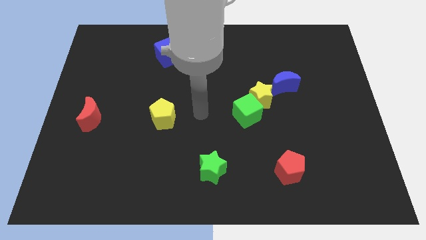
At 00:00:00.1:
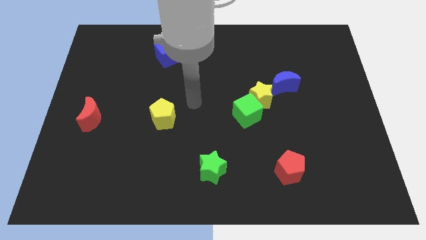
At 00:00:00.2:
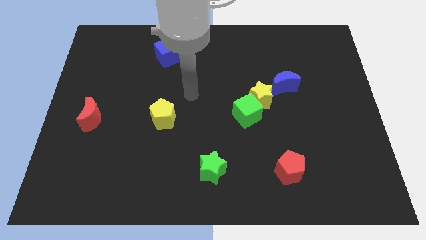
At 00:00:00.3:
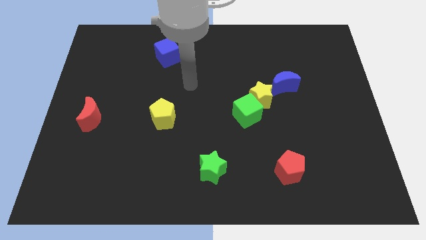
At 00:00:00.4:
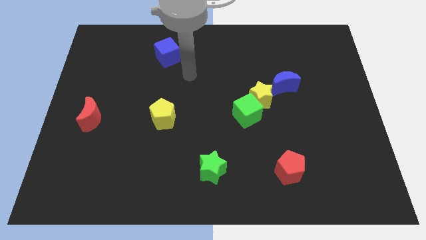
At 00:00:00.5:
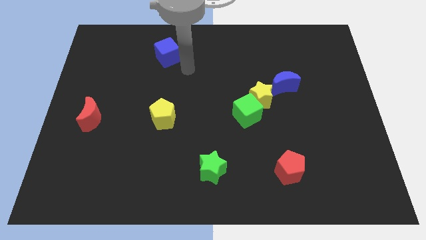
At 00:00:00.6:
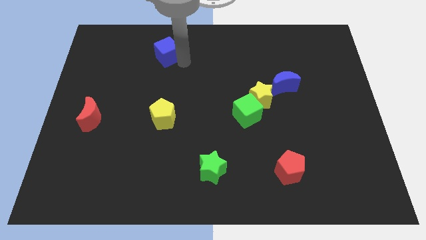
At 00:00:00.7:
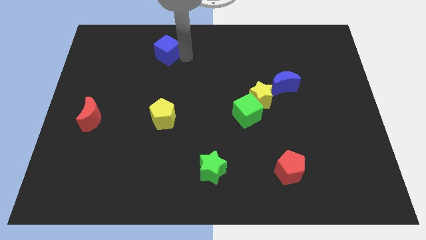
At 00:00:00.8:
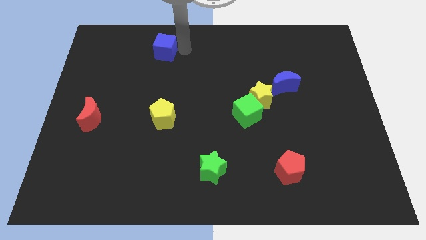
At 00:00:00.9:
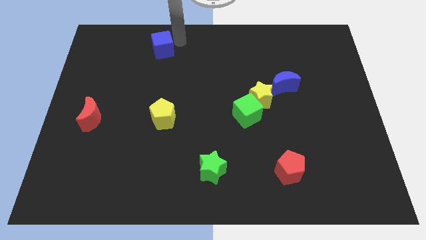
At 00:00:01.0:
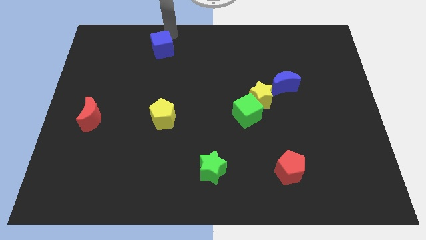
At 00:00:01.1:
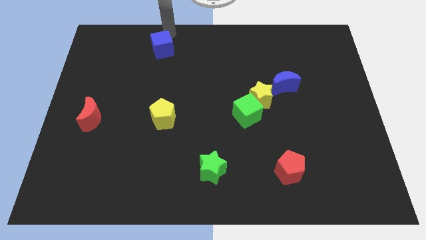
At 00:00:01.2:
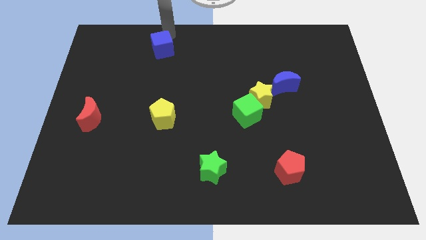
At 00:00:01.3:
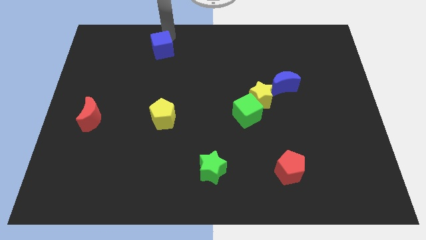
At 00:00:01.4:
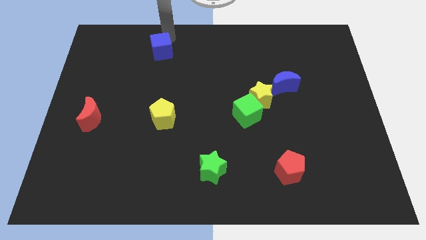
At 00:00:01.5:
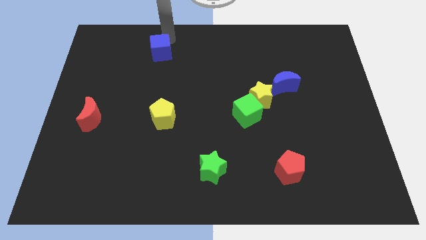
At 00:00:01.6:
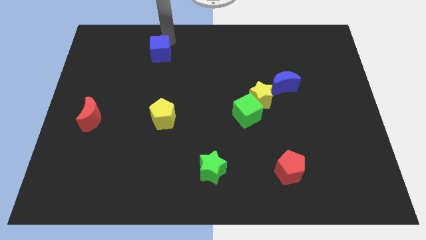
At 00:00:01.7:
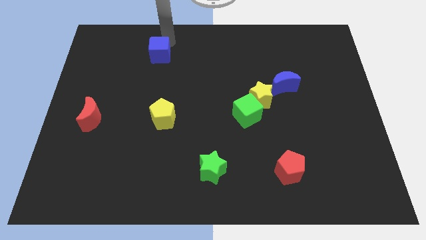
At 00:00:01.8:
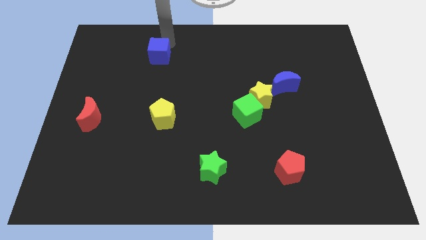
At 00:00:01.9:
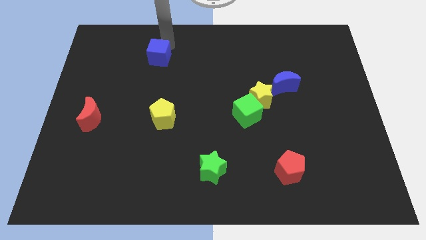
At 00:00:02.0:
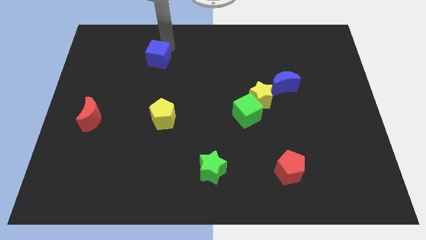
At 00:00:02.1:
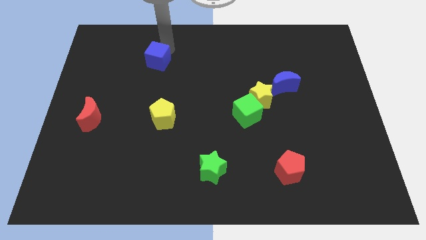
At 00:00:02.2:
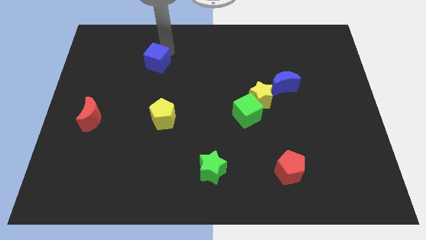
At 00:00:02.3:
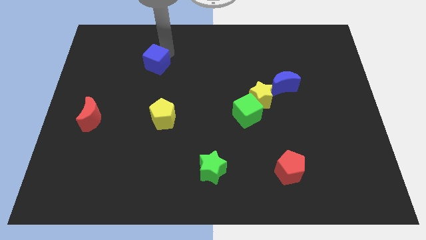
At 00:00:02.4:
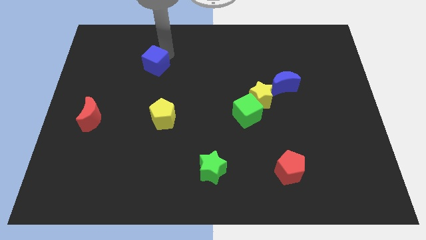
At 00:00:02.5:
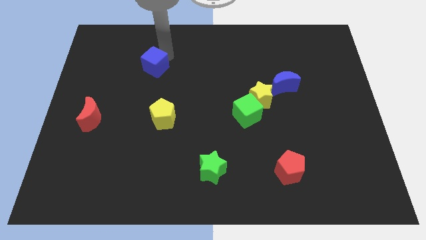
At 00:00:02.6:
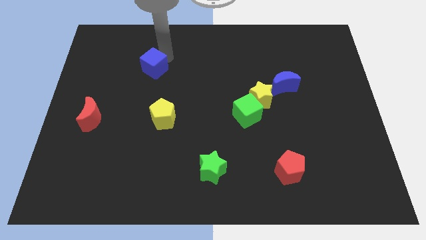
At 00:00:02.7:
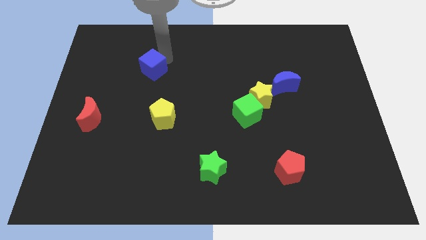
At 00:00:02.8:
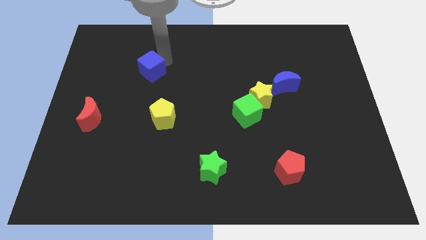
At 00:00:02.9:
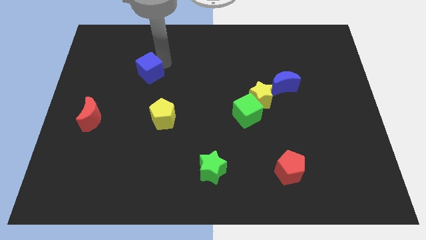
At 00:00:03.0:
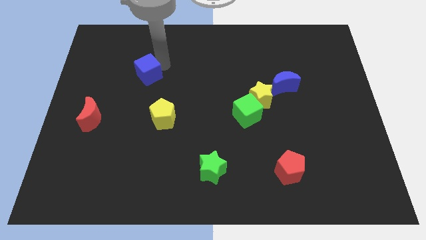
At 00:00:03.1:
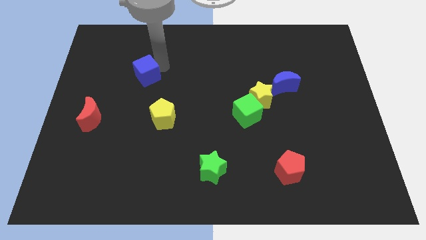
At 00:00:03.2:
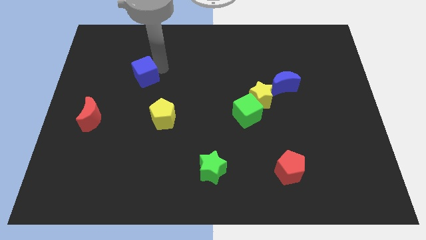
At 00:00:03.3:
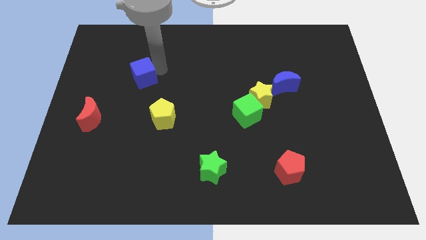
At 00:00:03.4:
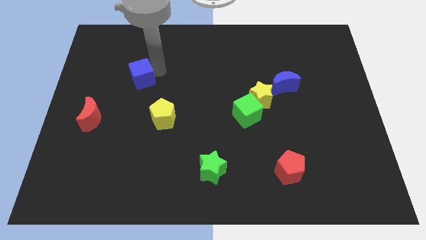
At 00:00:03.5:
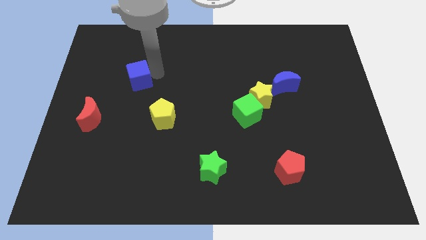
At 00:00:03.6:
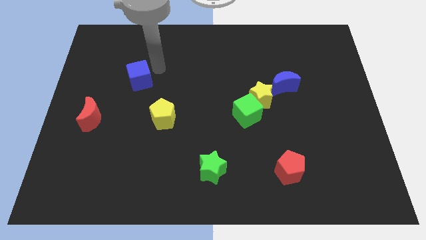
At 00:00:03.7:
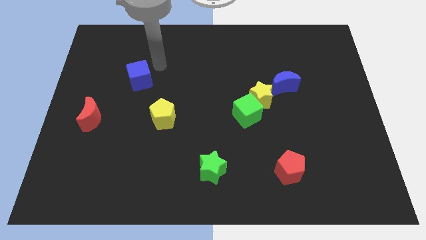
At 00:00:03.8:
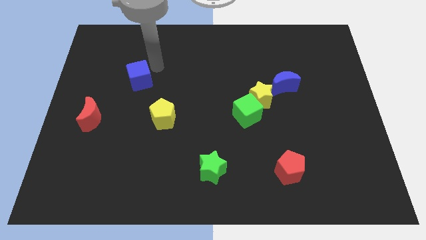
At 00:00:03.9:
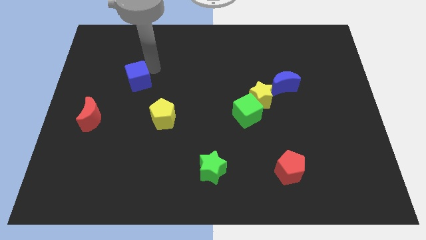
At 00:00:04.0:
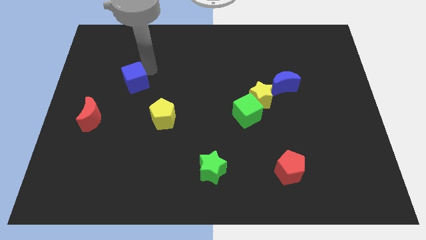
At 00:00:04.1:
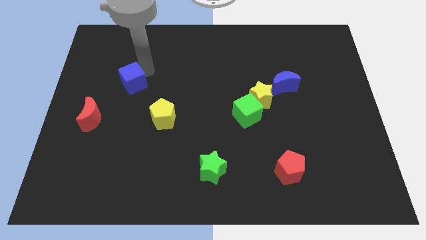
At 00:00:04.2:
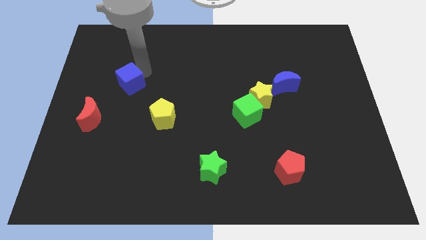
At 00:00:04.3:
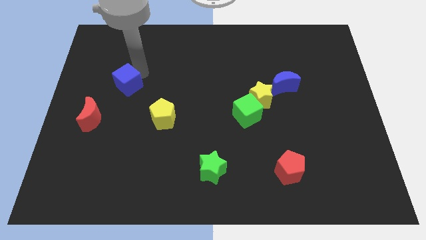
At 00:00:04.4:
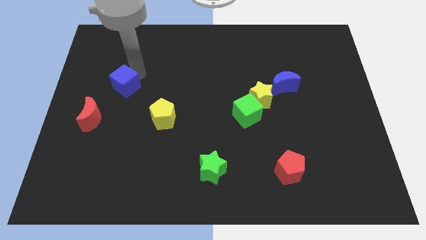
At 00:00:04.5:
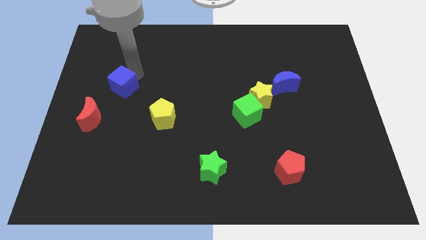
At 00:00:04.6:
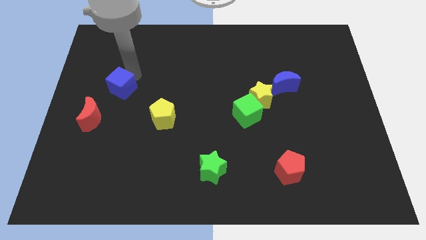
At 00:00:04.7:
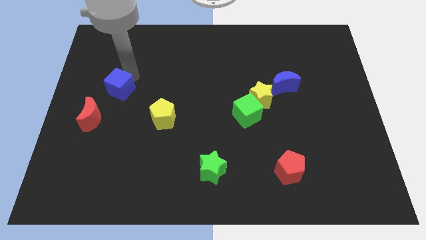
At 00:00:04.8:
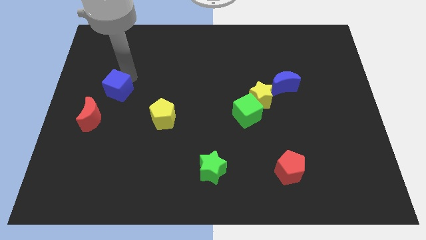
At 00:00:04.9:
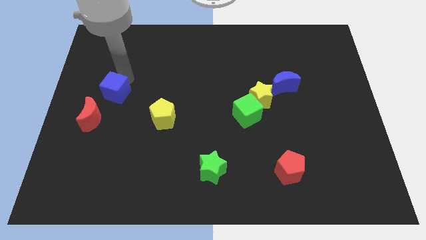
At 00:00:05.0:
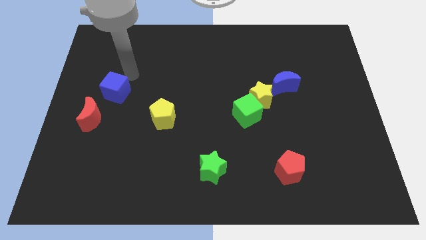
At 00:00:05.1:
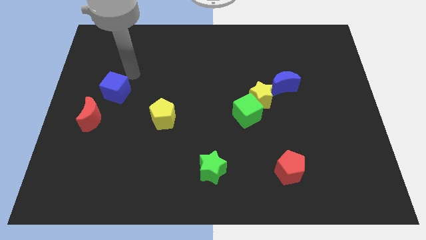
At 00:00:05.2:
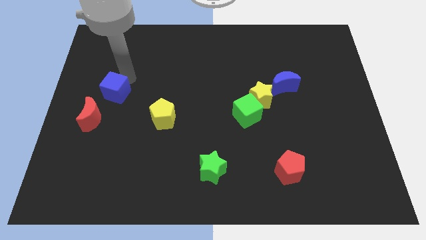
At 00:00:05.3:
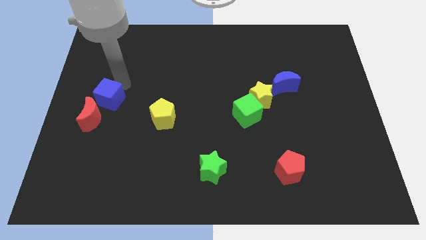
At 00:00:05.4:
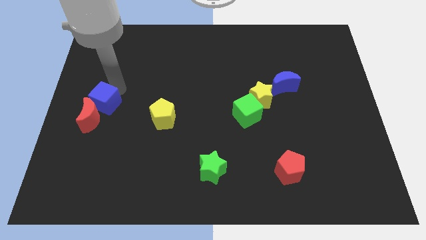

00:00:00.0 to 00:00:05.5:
slide the blue cube towards the red moon

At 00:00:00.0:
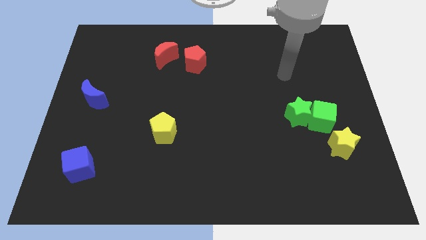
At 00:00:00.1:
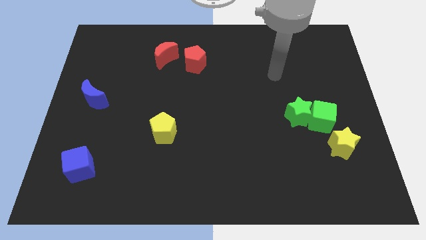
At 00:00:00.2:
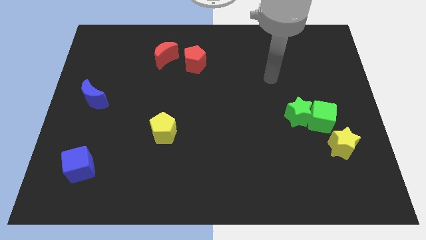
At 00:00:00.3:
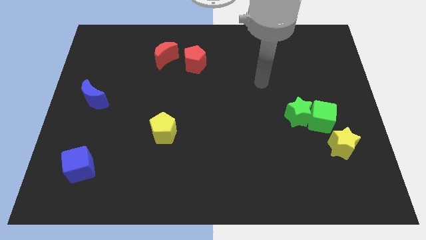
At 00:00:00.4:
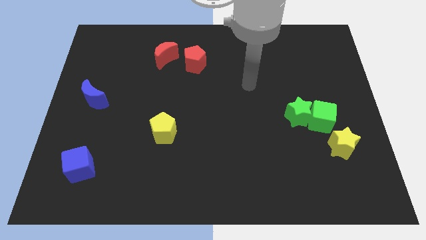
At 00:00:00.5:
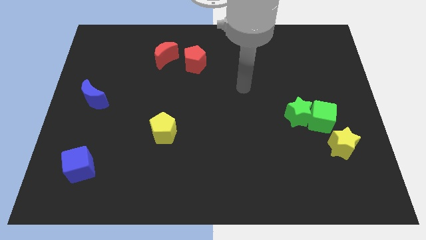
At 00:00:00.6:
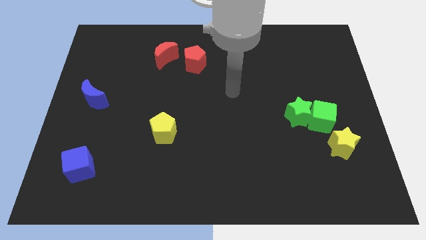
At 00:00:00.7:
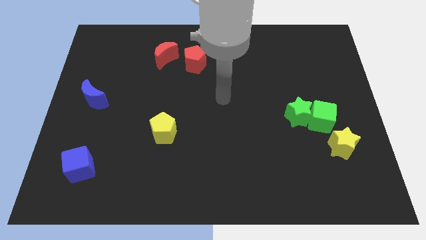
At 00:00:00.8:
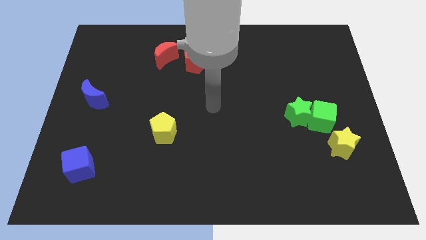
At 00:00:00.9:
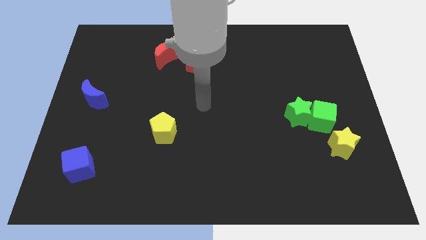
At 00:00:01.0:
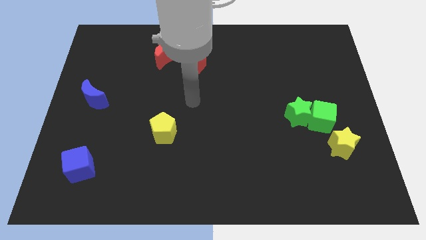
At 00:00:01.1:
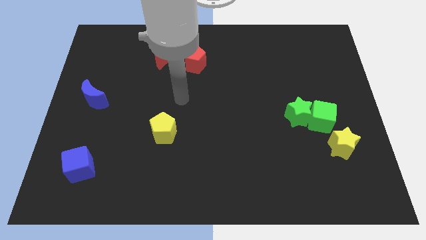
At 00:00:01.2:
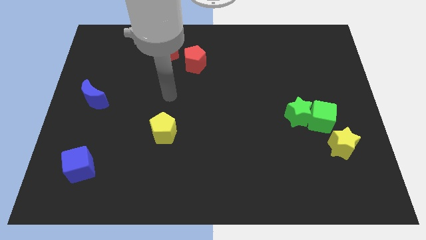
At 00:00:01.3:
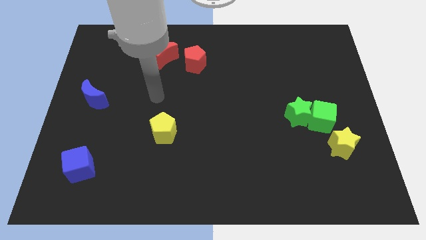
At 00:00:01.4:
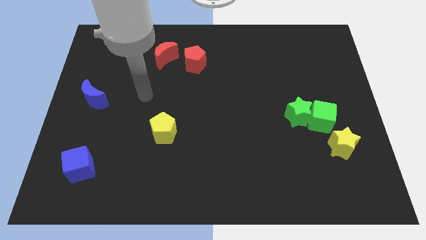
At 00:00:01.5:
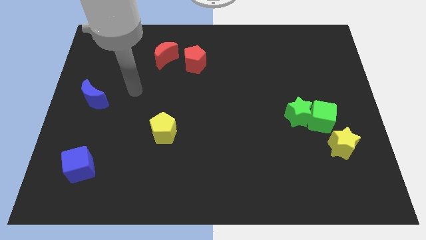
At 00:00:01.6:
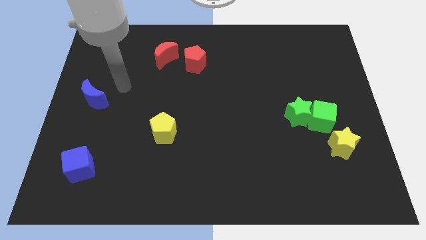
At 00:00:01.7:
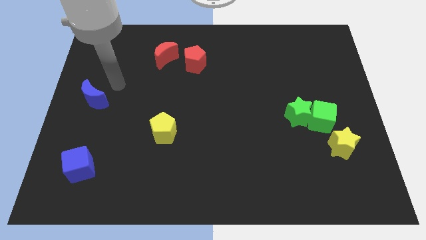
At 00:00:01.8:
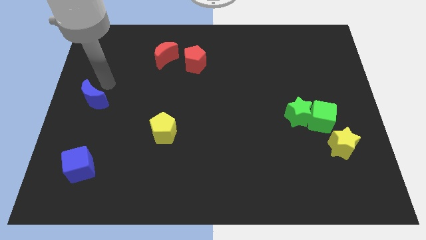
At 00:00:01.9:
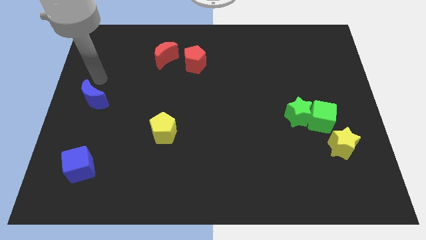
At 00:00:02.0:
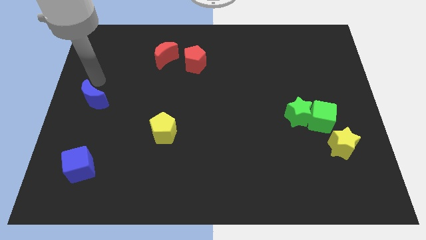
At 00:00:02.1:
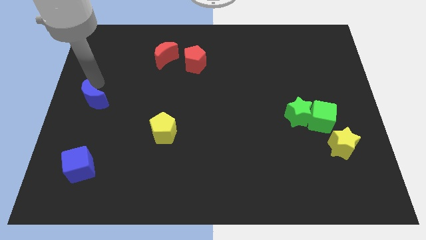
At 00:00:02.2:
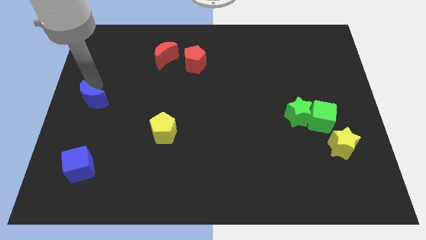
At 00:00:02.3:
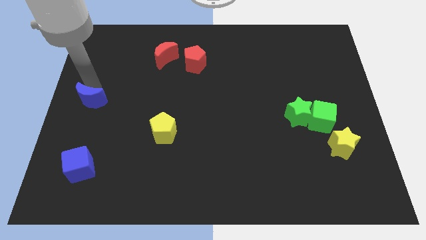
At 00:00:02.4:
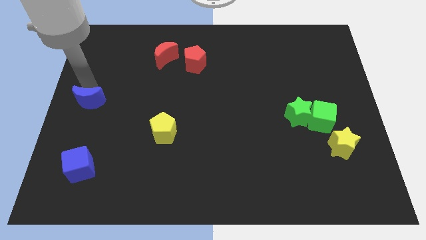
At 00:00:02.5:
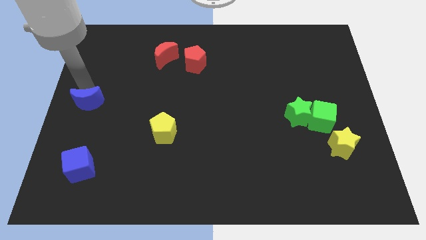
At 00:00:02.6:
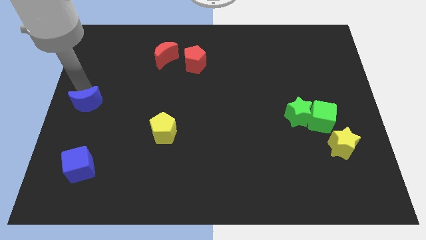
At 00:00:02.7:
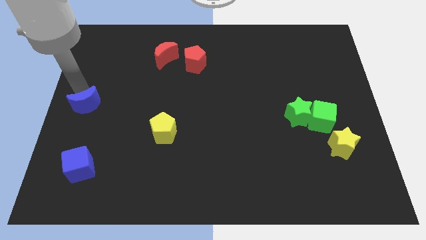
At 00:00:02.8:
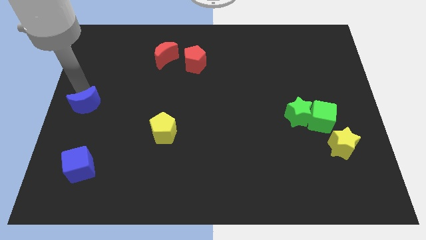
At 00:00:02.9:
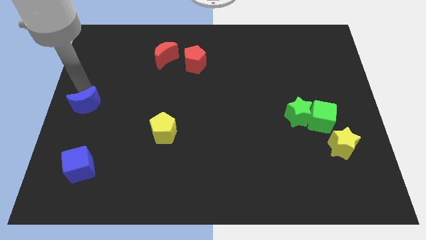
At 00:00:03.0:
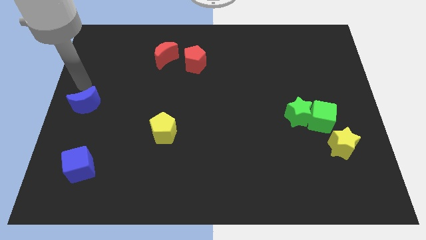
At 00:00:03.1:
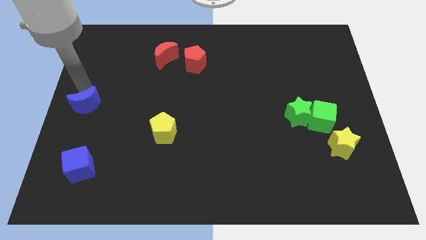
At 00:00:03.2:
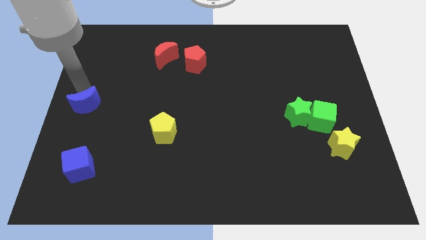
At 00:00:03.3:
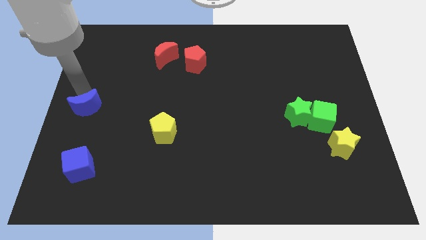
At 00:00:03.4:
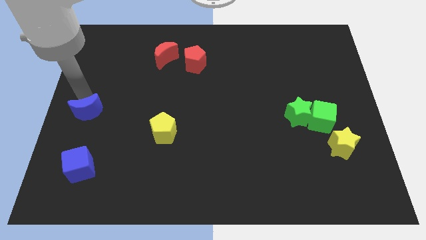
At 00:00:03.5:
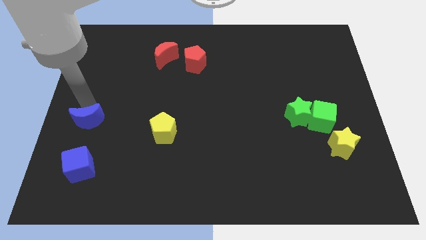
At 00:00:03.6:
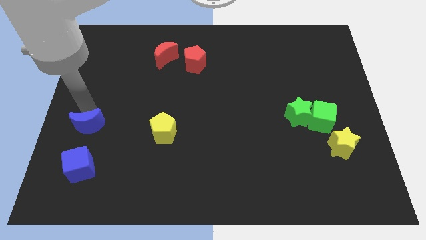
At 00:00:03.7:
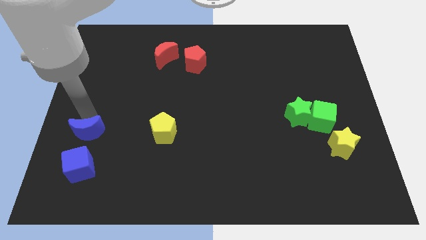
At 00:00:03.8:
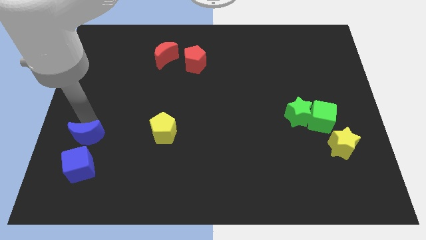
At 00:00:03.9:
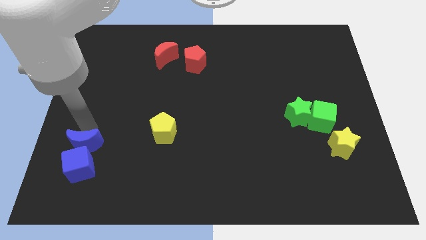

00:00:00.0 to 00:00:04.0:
slide the blue moon next to the blue cube
